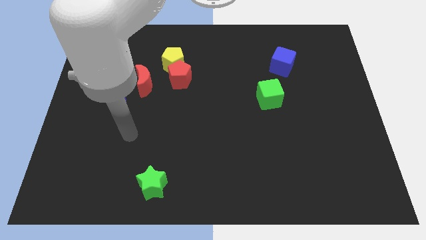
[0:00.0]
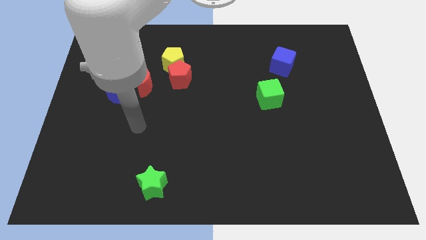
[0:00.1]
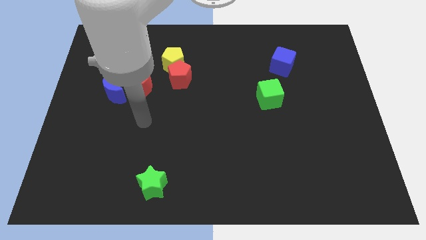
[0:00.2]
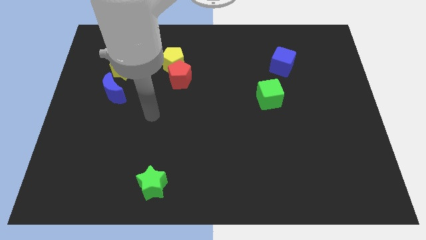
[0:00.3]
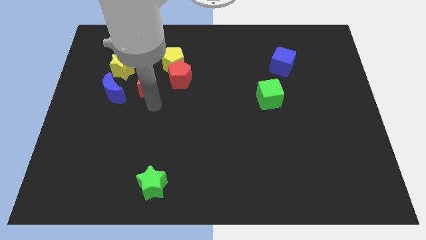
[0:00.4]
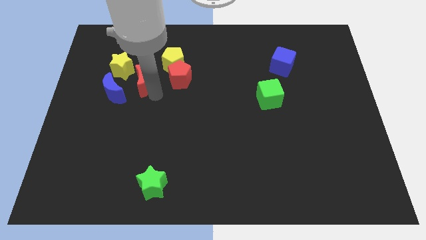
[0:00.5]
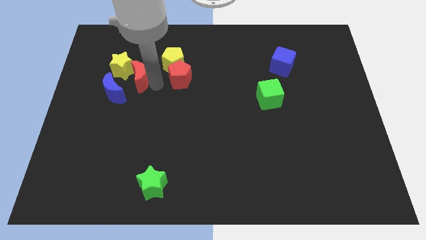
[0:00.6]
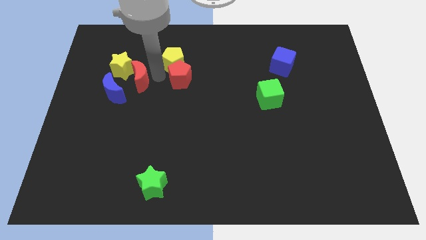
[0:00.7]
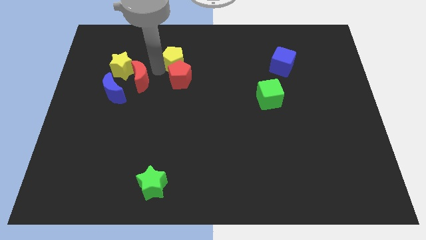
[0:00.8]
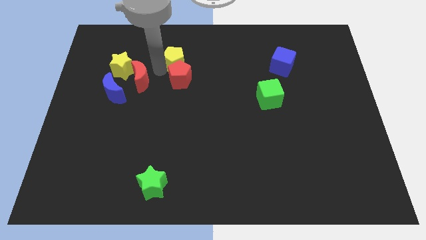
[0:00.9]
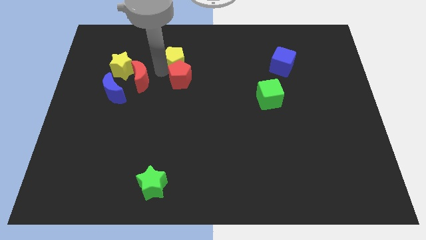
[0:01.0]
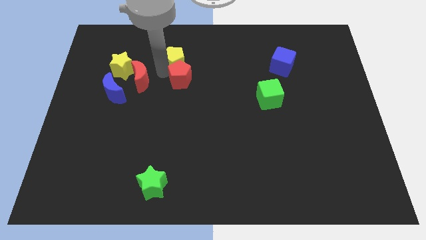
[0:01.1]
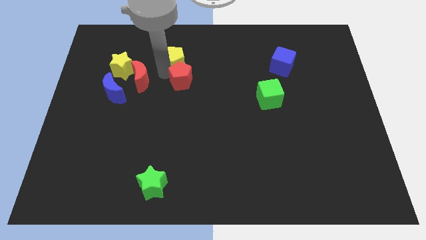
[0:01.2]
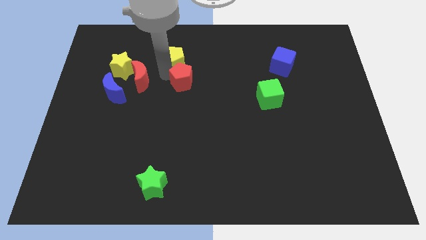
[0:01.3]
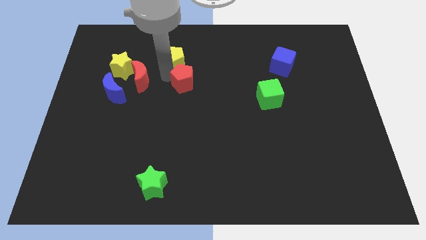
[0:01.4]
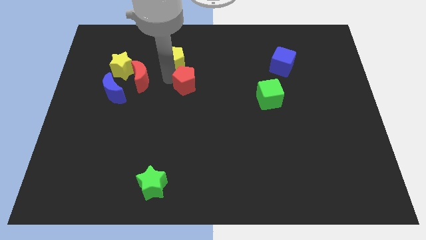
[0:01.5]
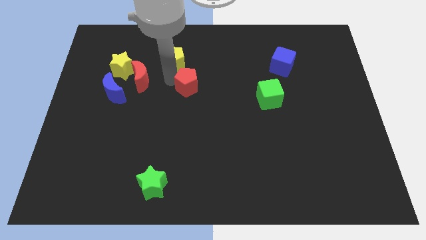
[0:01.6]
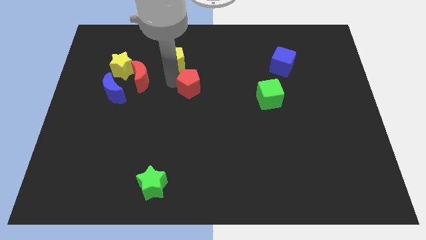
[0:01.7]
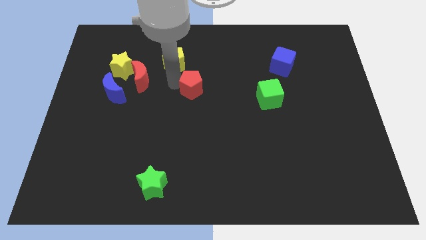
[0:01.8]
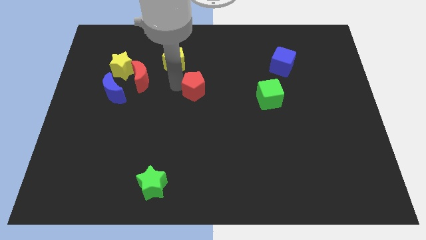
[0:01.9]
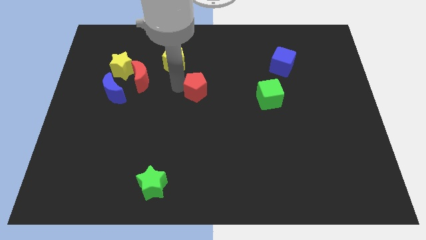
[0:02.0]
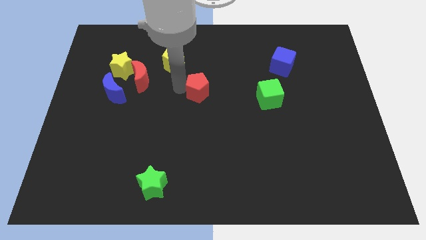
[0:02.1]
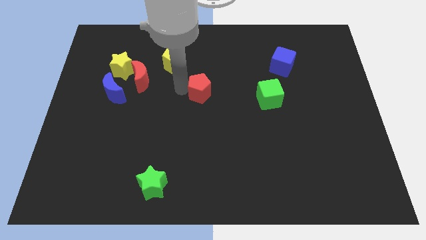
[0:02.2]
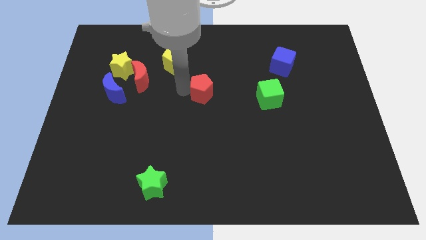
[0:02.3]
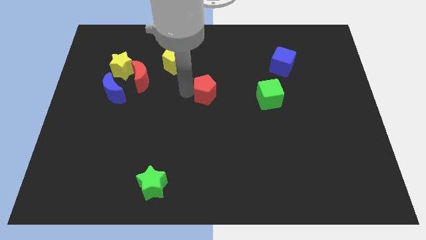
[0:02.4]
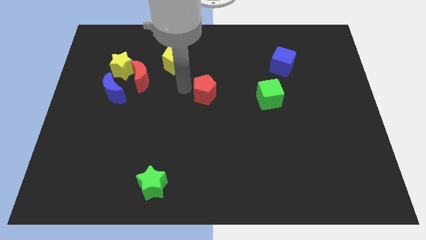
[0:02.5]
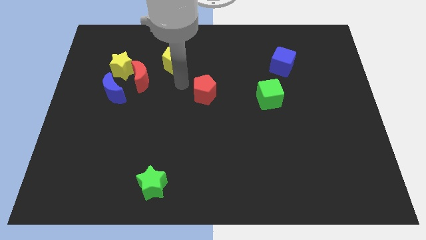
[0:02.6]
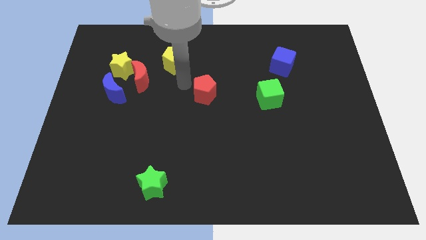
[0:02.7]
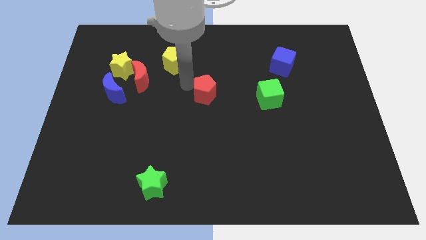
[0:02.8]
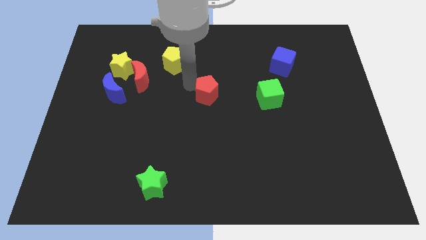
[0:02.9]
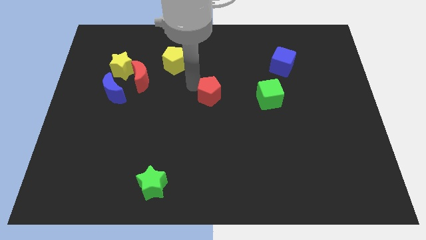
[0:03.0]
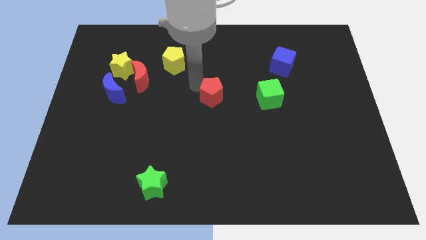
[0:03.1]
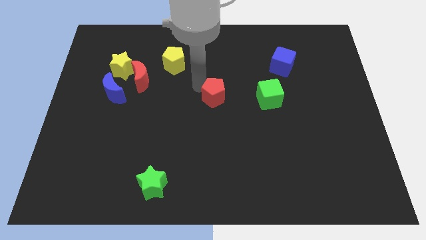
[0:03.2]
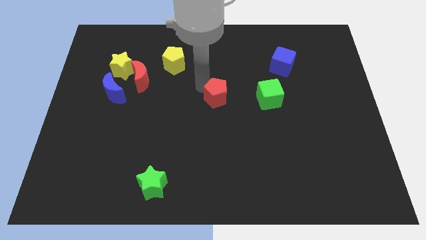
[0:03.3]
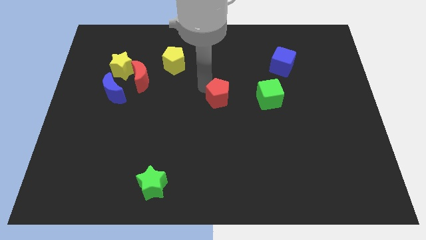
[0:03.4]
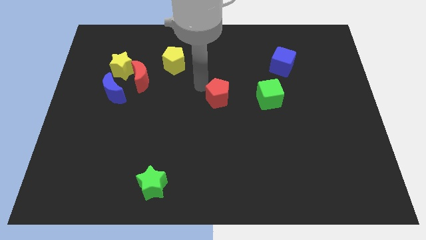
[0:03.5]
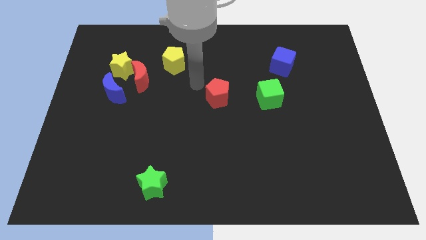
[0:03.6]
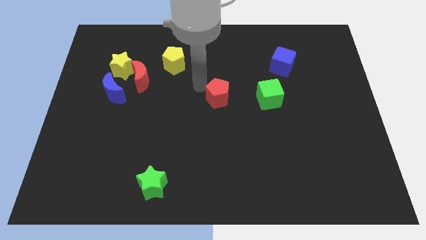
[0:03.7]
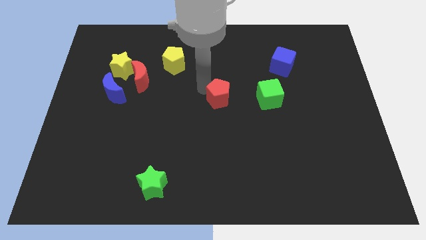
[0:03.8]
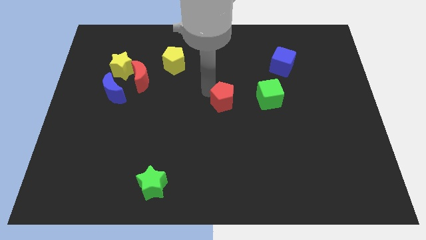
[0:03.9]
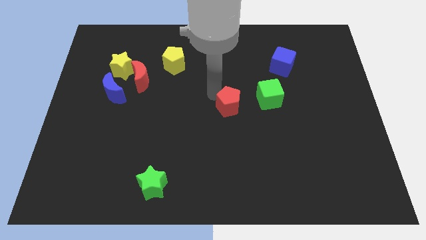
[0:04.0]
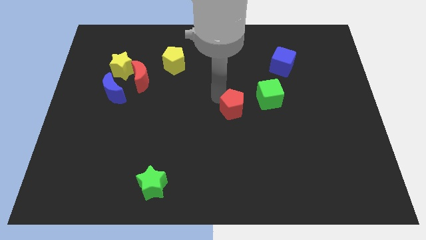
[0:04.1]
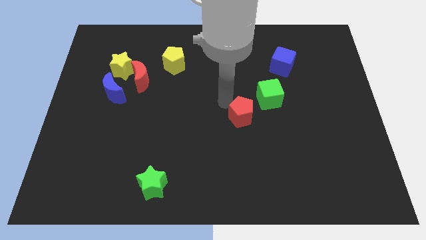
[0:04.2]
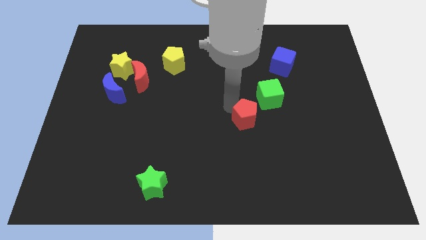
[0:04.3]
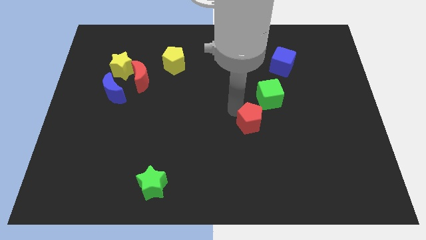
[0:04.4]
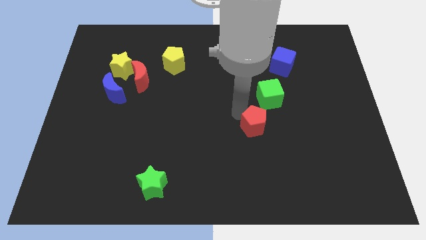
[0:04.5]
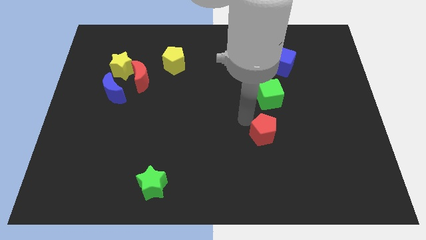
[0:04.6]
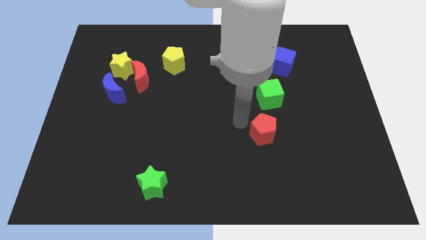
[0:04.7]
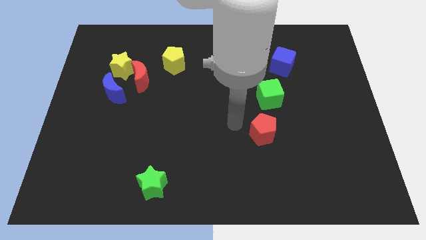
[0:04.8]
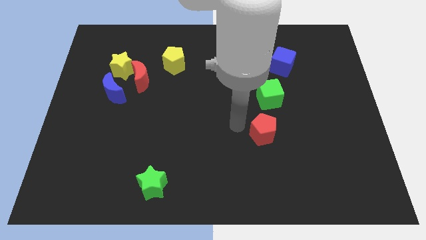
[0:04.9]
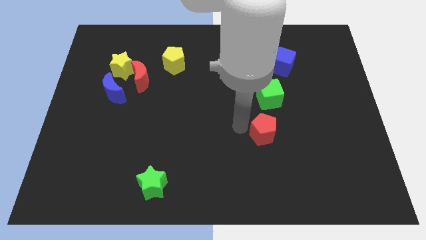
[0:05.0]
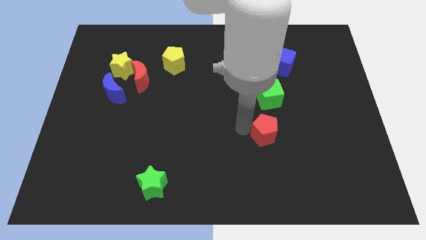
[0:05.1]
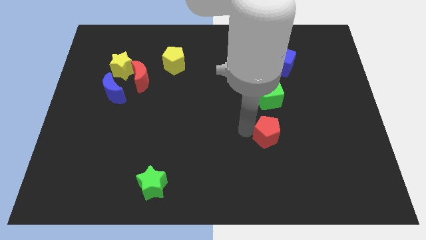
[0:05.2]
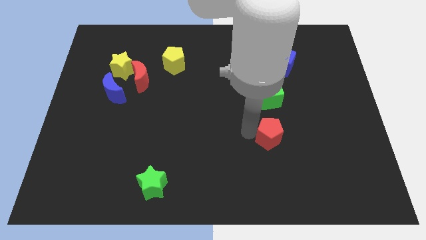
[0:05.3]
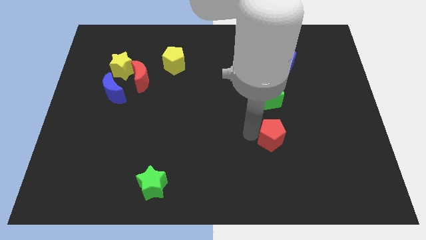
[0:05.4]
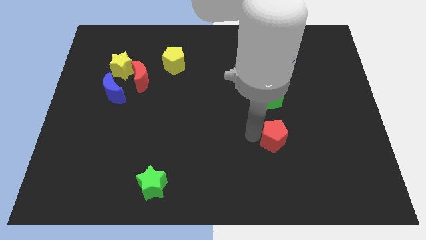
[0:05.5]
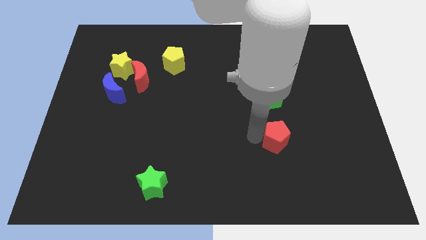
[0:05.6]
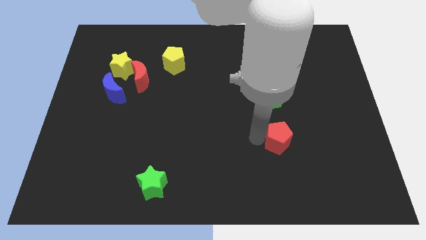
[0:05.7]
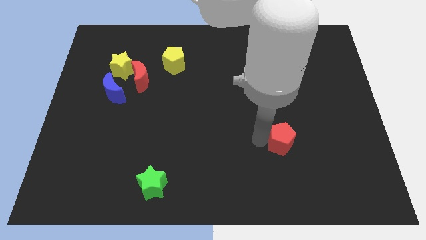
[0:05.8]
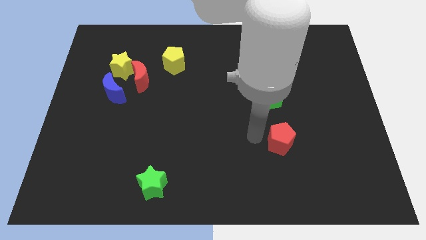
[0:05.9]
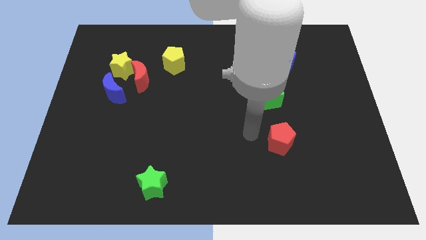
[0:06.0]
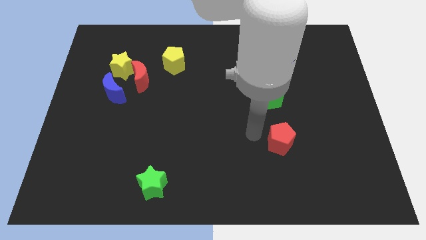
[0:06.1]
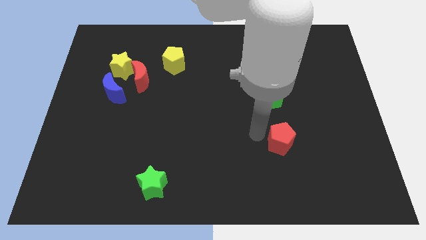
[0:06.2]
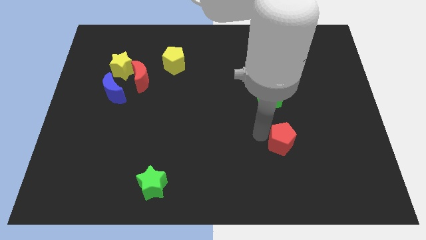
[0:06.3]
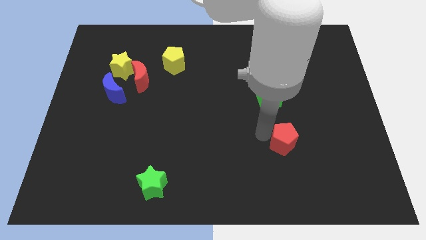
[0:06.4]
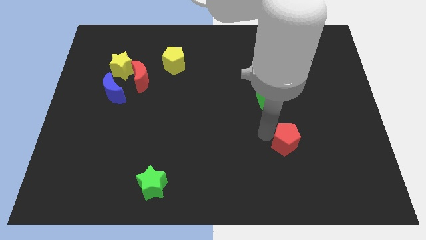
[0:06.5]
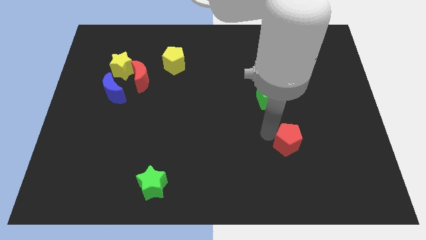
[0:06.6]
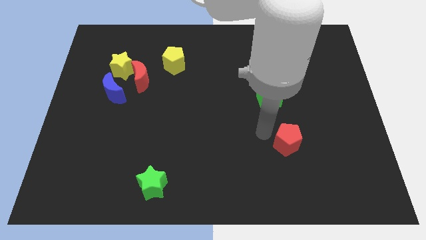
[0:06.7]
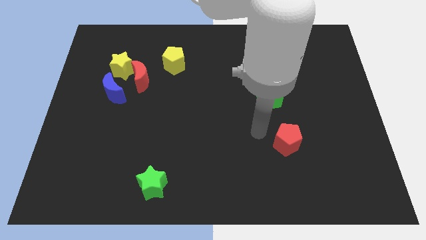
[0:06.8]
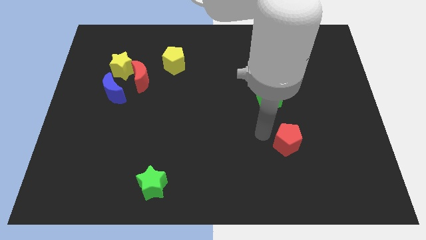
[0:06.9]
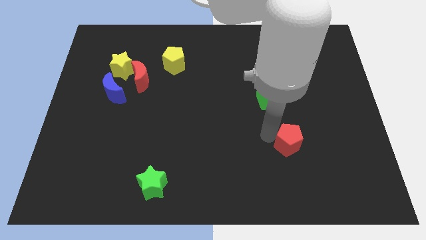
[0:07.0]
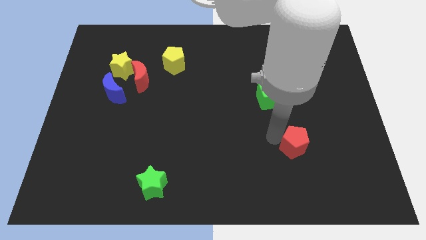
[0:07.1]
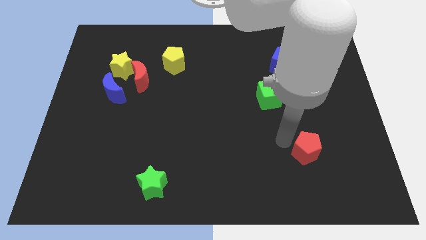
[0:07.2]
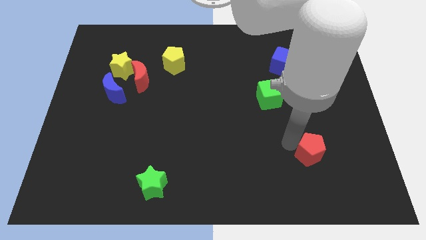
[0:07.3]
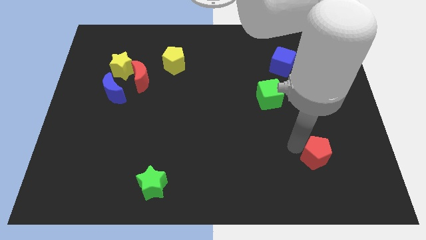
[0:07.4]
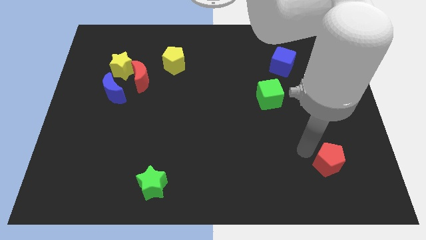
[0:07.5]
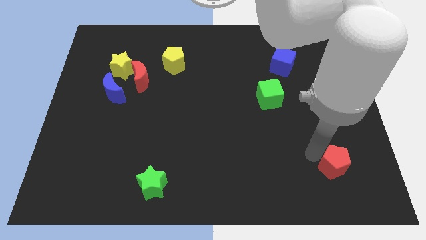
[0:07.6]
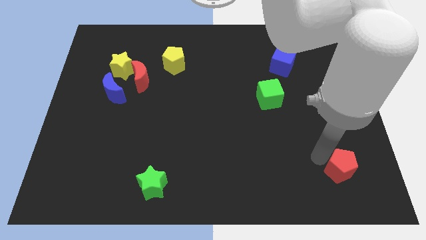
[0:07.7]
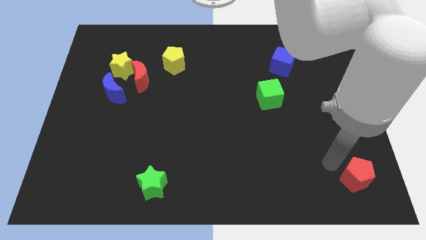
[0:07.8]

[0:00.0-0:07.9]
slide the red pentagon to the bottom right corner
